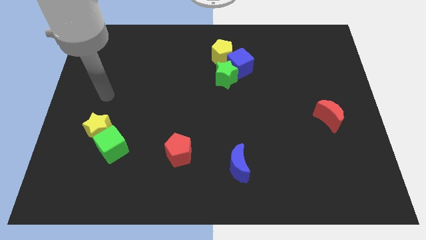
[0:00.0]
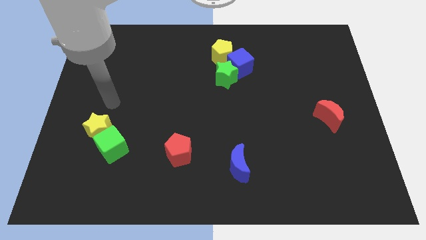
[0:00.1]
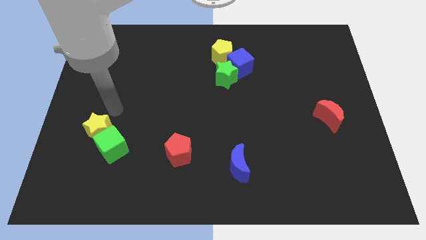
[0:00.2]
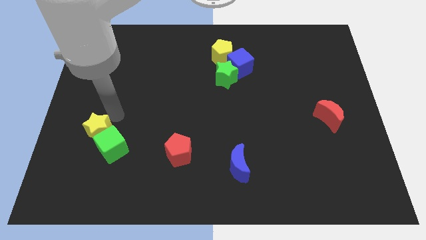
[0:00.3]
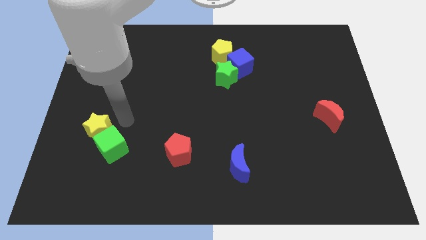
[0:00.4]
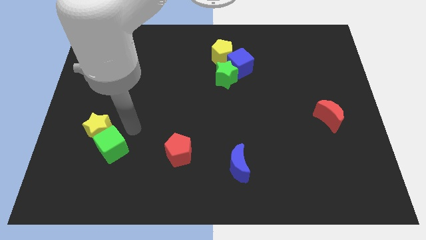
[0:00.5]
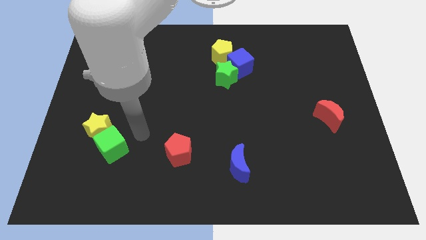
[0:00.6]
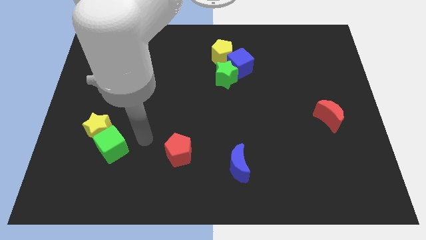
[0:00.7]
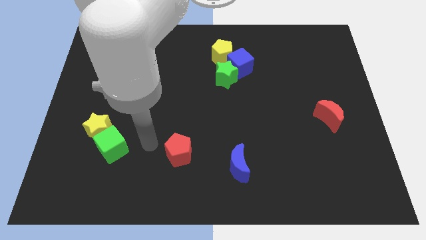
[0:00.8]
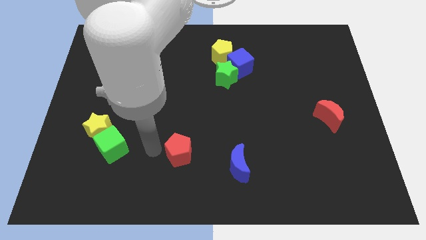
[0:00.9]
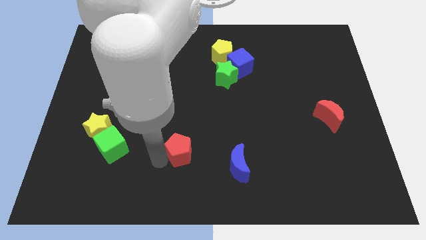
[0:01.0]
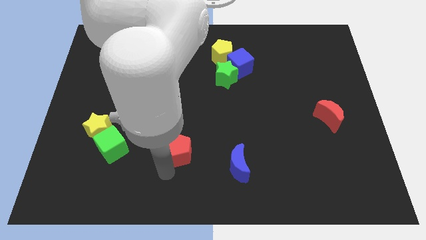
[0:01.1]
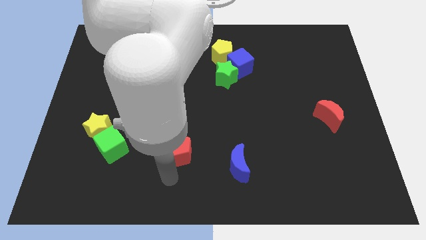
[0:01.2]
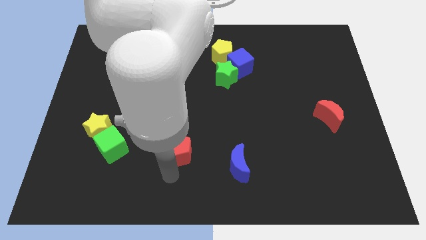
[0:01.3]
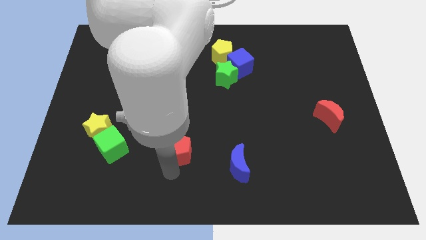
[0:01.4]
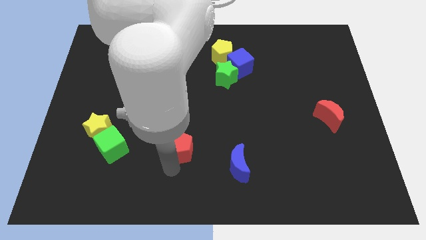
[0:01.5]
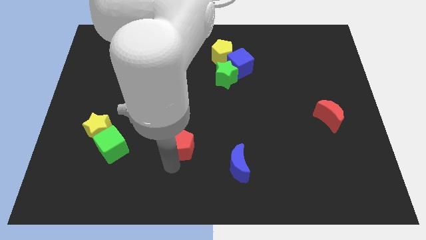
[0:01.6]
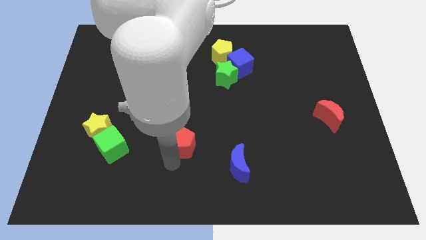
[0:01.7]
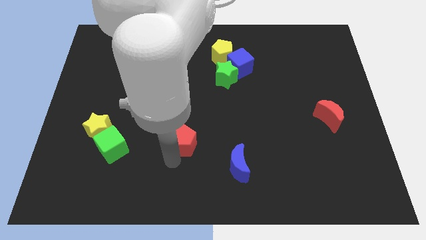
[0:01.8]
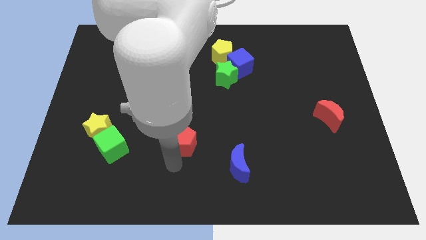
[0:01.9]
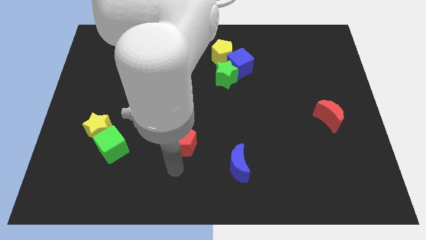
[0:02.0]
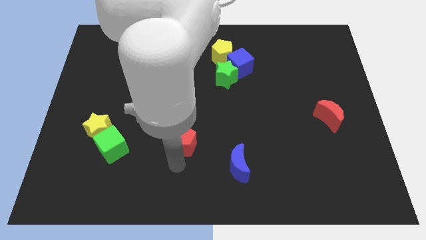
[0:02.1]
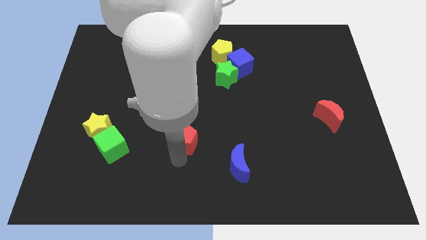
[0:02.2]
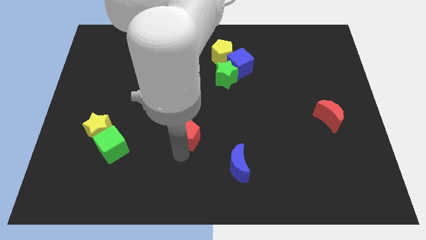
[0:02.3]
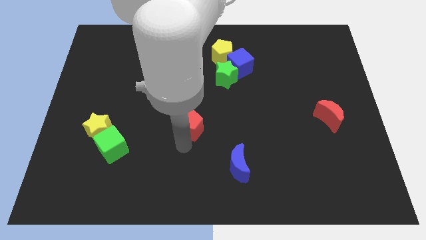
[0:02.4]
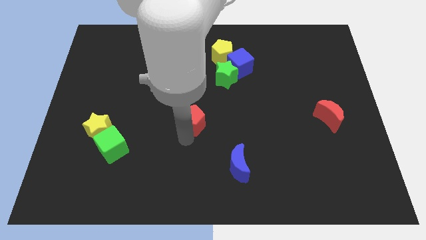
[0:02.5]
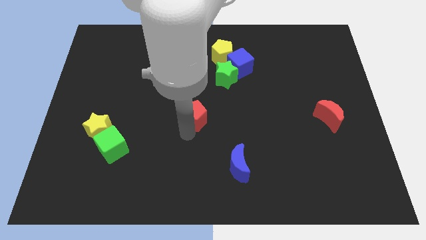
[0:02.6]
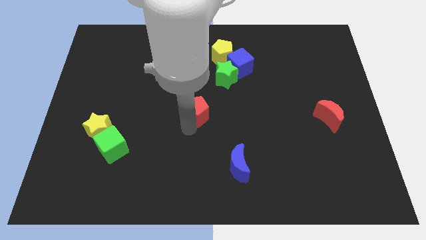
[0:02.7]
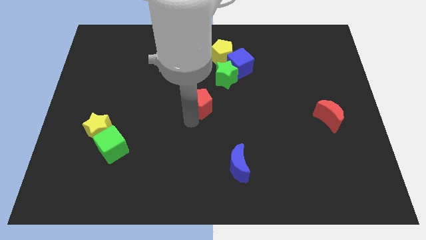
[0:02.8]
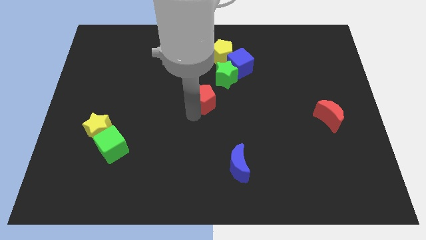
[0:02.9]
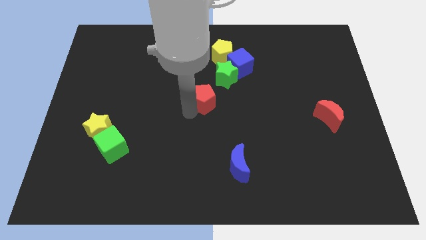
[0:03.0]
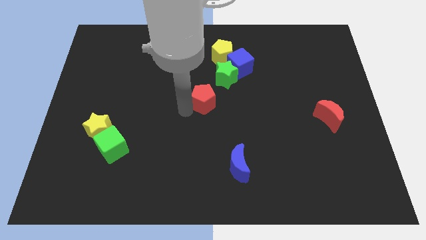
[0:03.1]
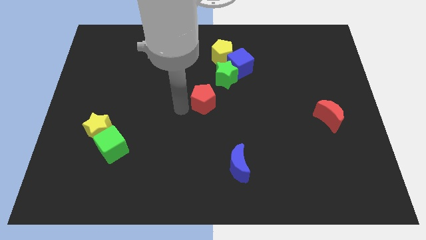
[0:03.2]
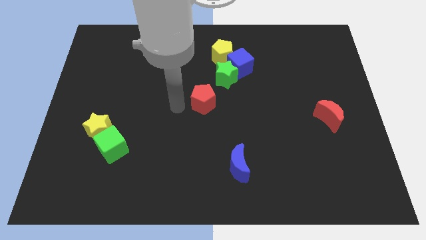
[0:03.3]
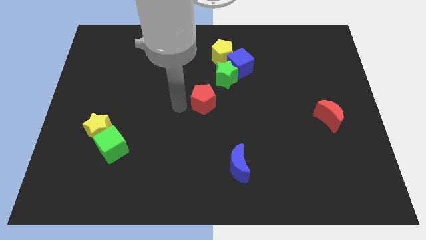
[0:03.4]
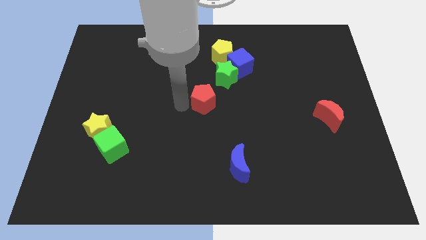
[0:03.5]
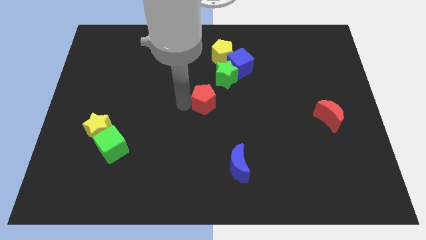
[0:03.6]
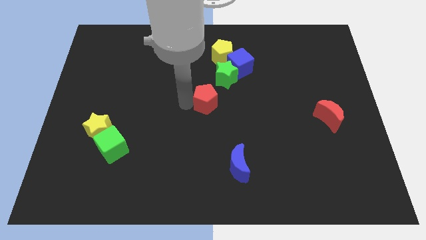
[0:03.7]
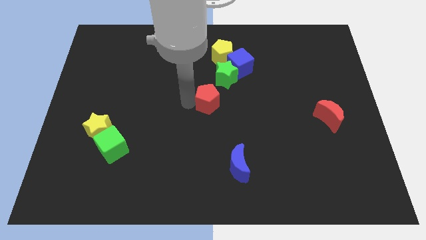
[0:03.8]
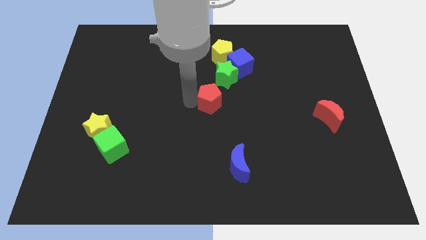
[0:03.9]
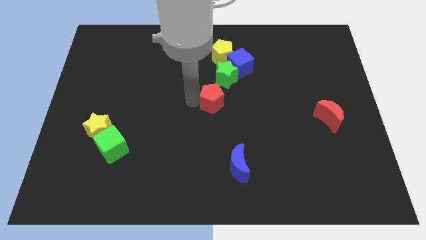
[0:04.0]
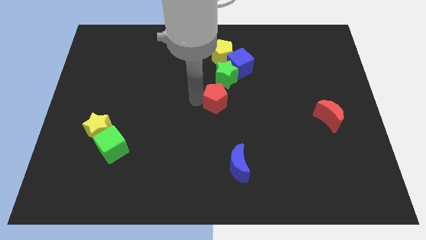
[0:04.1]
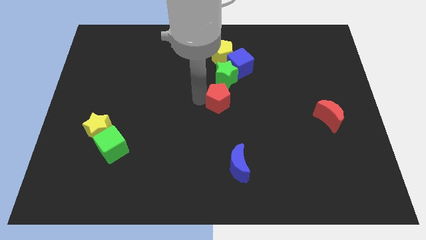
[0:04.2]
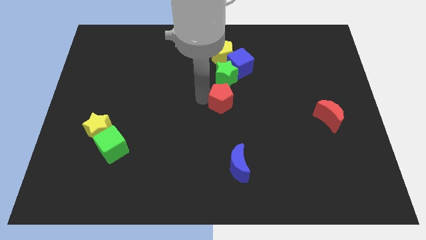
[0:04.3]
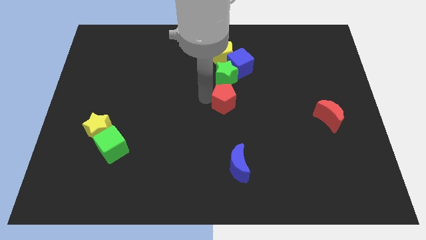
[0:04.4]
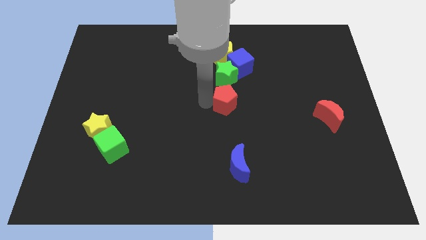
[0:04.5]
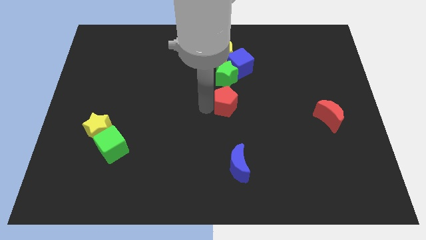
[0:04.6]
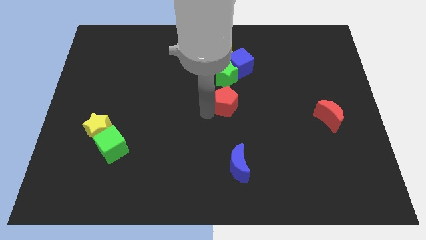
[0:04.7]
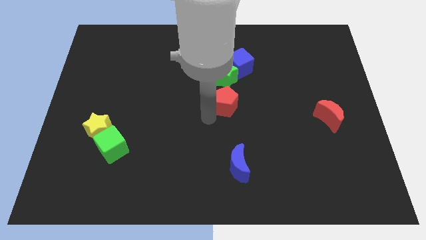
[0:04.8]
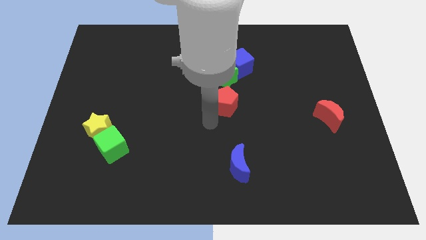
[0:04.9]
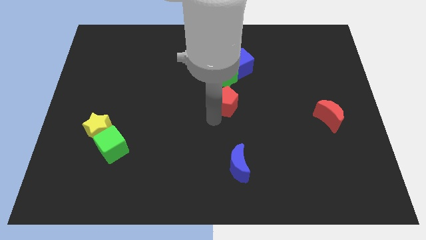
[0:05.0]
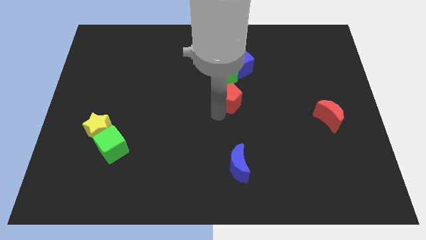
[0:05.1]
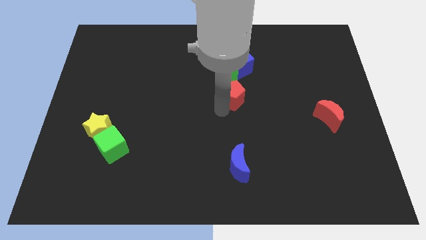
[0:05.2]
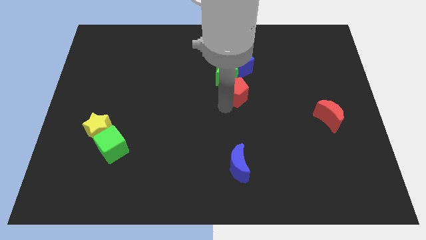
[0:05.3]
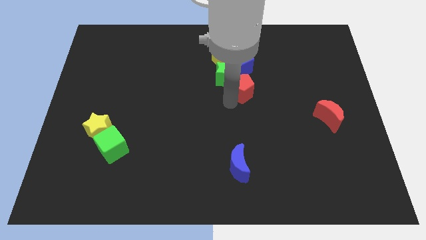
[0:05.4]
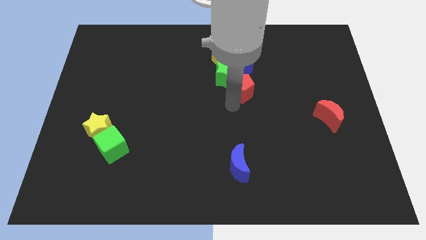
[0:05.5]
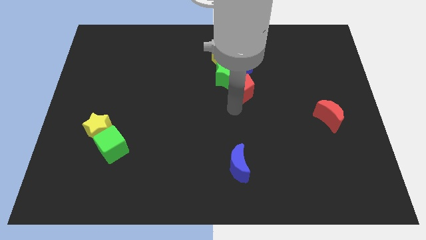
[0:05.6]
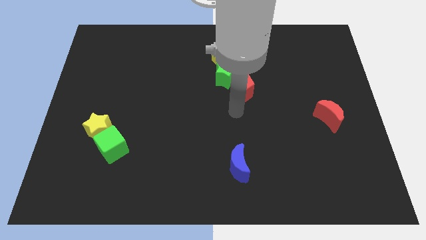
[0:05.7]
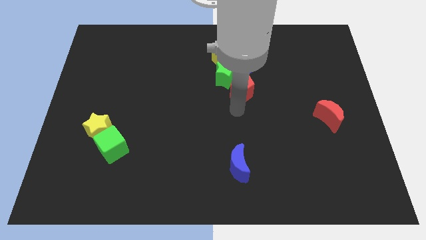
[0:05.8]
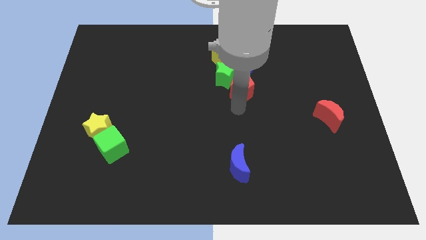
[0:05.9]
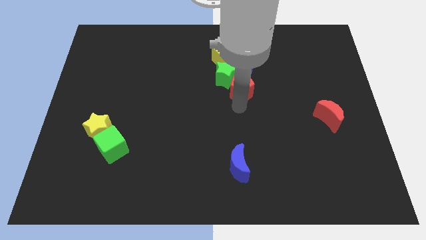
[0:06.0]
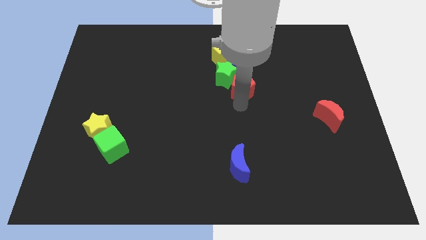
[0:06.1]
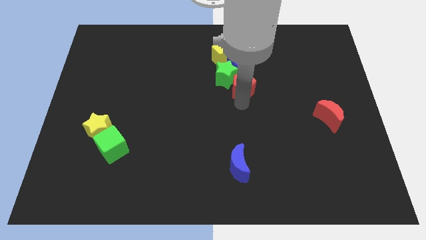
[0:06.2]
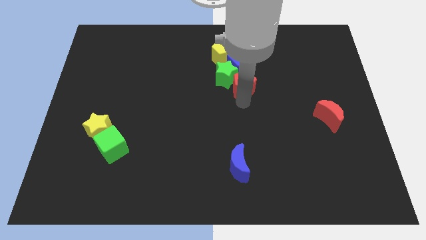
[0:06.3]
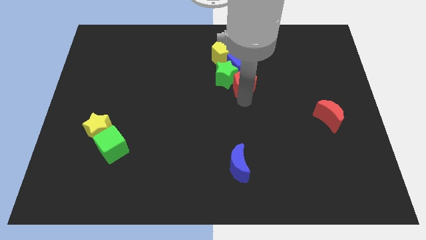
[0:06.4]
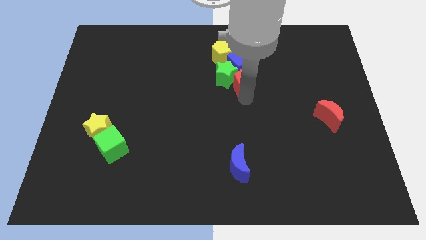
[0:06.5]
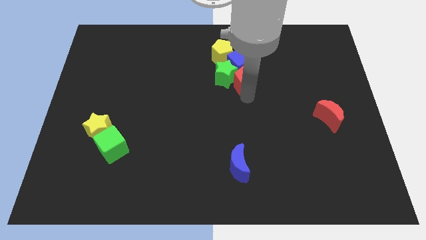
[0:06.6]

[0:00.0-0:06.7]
slide the red pentagon towards the blue cube
